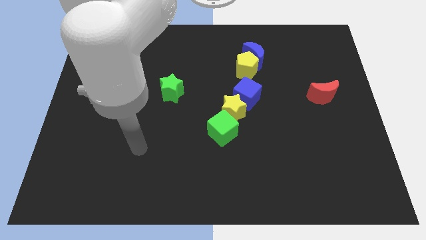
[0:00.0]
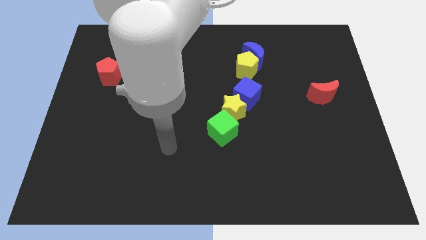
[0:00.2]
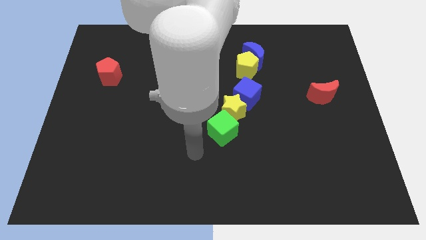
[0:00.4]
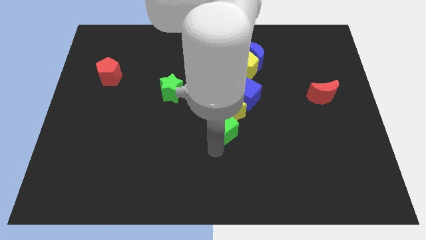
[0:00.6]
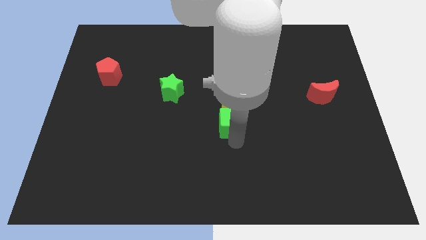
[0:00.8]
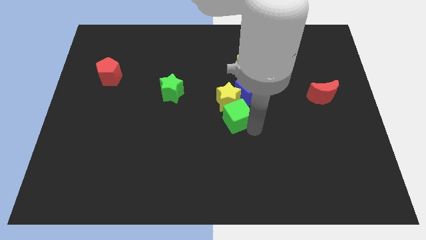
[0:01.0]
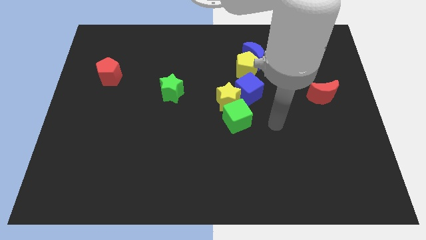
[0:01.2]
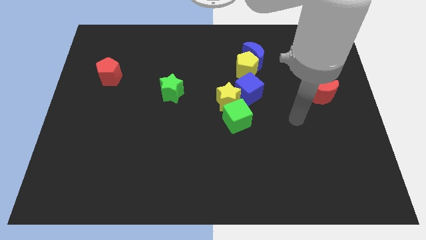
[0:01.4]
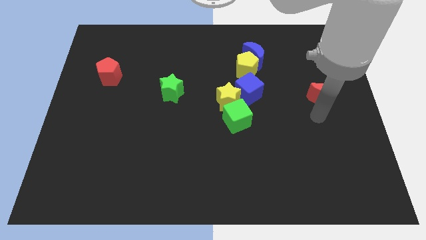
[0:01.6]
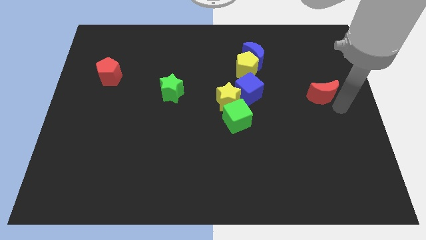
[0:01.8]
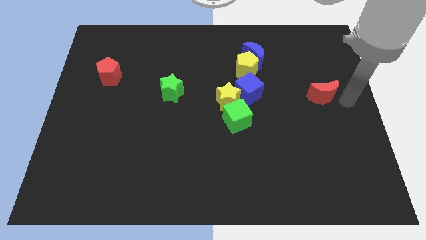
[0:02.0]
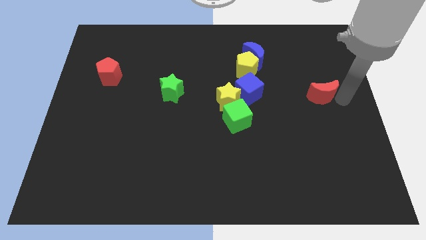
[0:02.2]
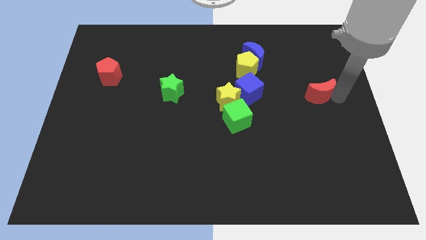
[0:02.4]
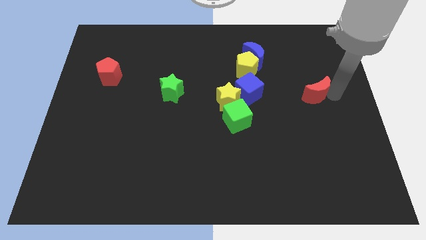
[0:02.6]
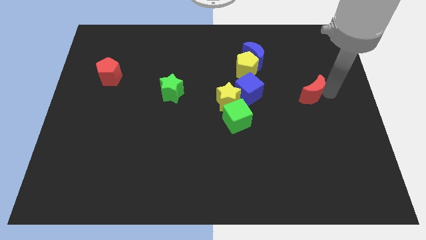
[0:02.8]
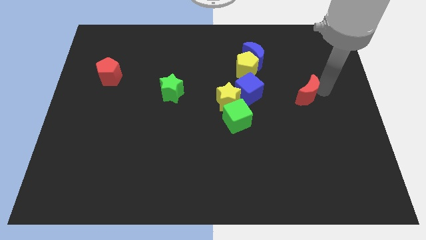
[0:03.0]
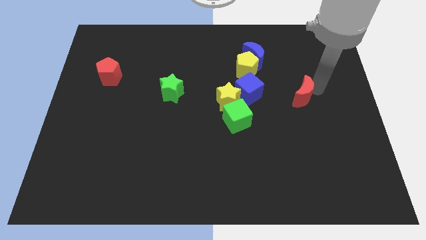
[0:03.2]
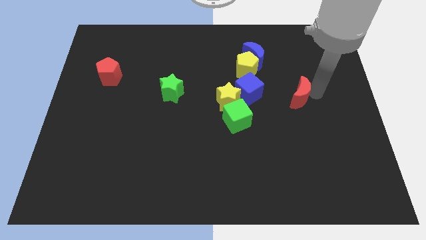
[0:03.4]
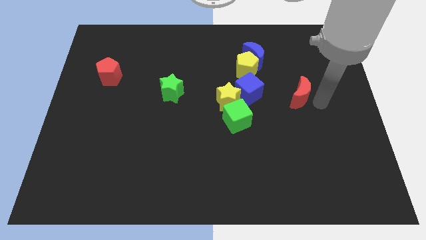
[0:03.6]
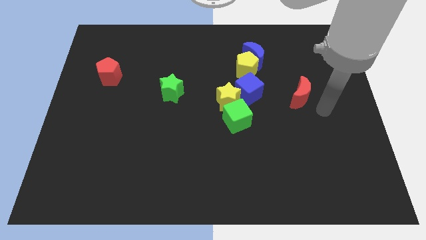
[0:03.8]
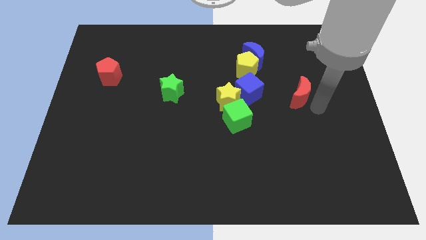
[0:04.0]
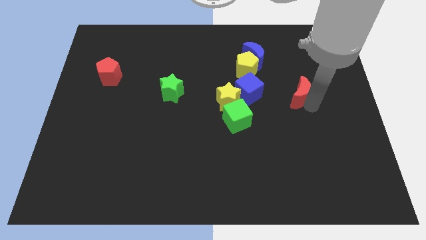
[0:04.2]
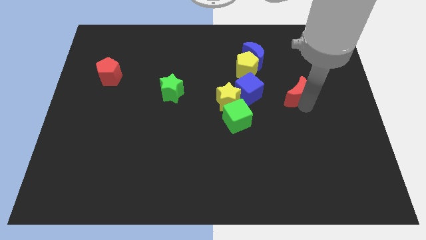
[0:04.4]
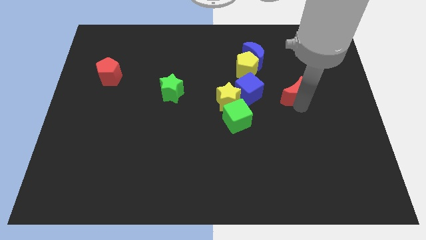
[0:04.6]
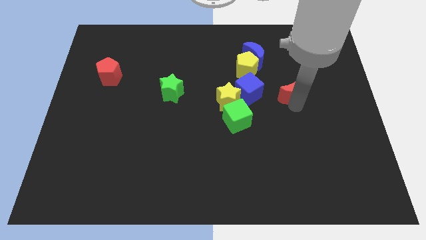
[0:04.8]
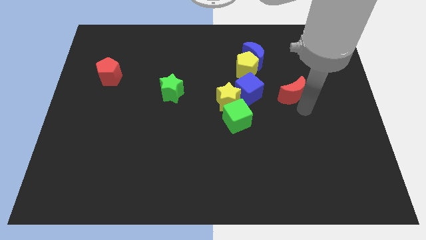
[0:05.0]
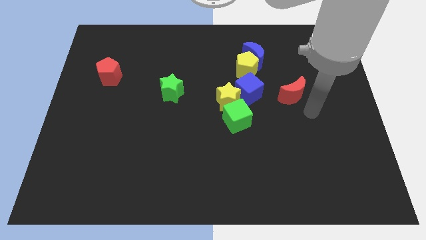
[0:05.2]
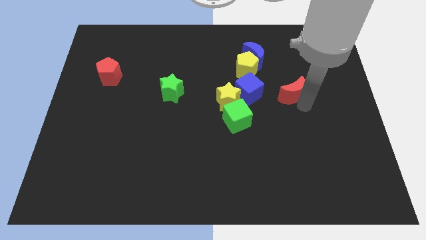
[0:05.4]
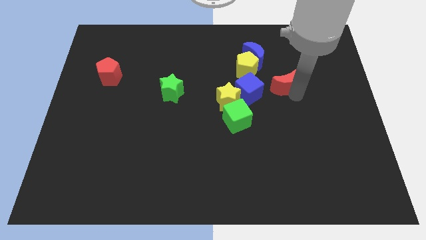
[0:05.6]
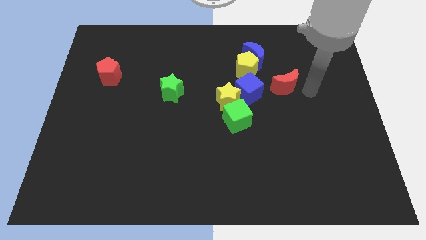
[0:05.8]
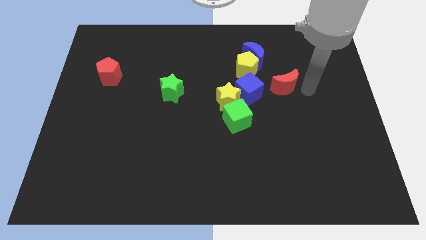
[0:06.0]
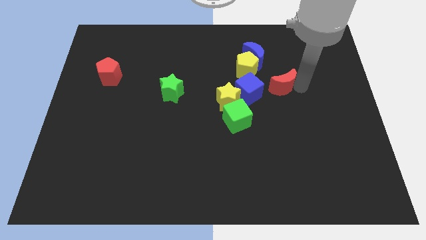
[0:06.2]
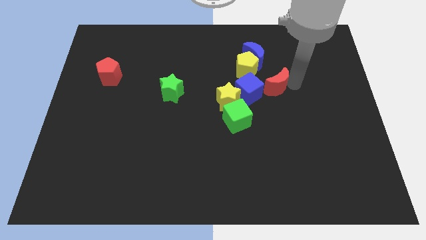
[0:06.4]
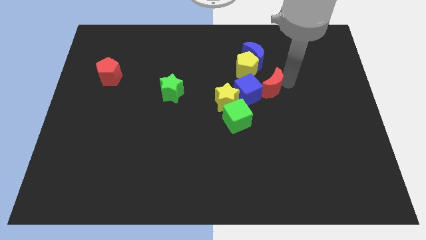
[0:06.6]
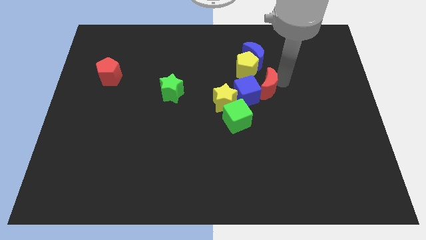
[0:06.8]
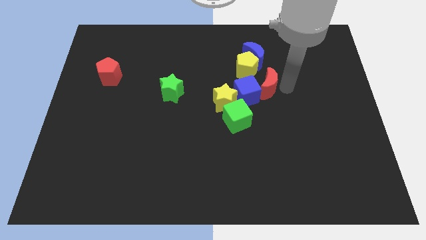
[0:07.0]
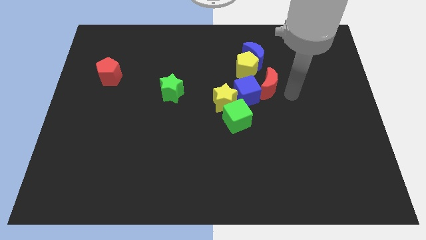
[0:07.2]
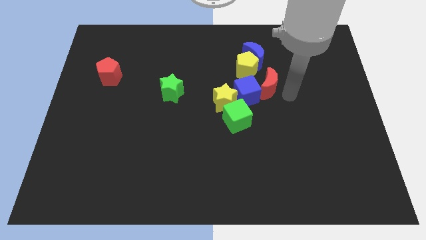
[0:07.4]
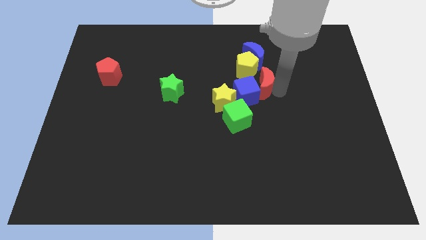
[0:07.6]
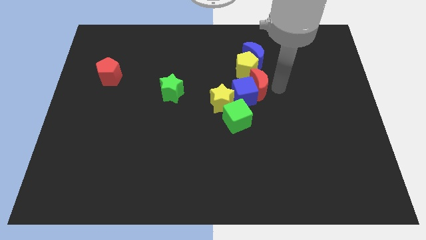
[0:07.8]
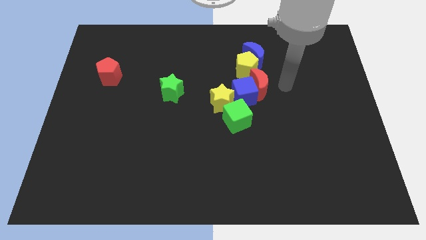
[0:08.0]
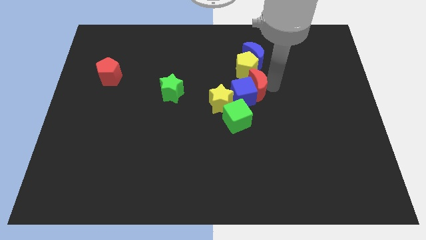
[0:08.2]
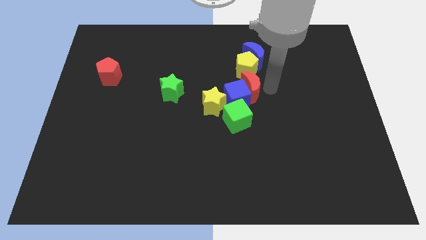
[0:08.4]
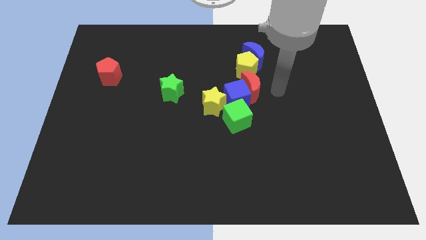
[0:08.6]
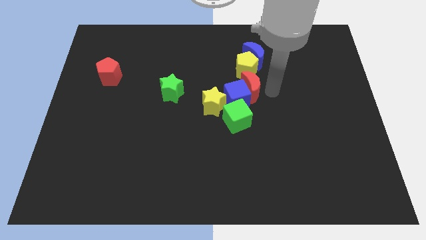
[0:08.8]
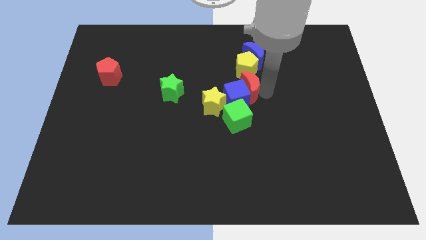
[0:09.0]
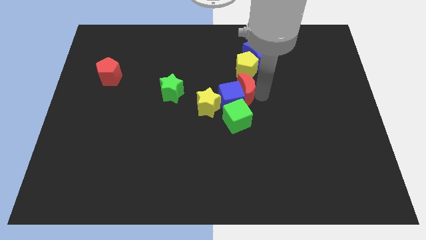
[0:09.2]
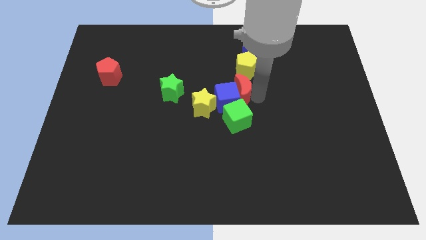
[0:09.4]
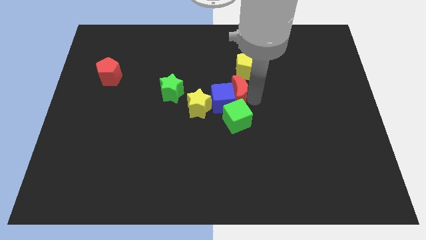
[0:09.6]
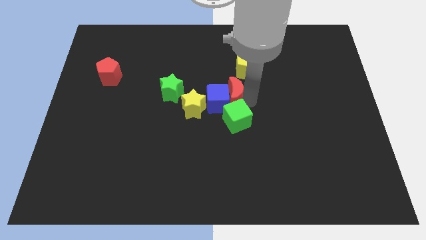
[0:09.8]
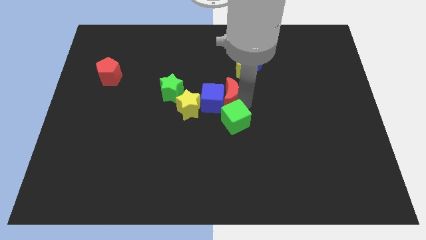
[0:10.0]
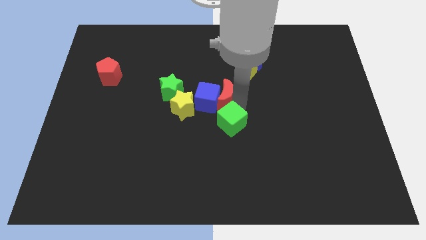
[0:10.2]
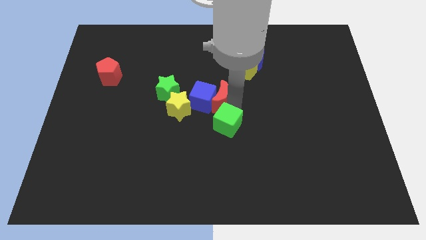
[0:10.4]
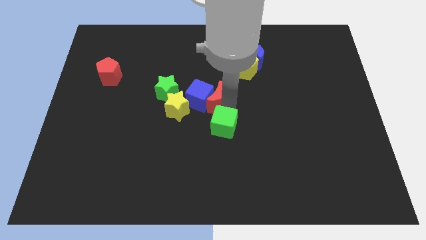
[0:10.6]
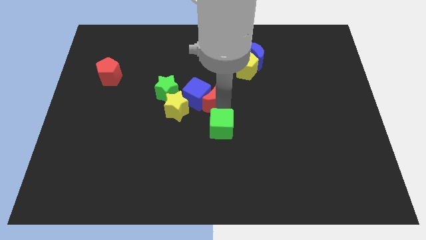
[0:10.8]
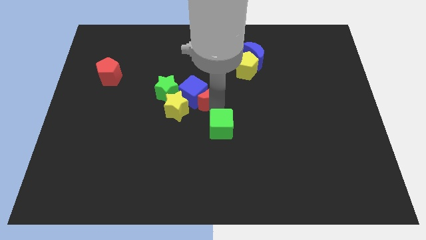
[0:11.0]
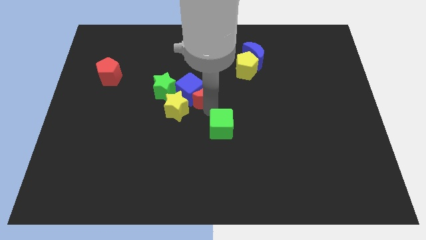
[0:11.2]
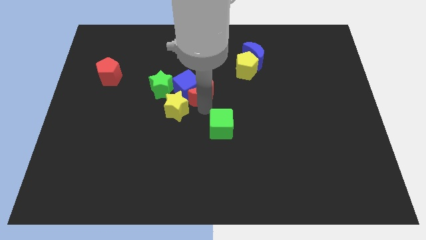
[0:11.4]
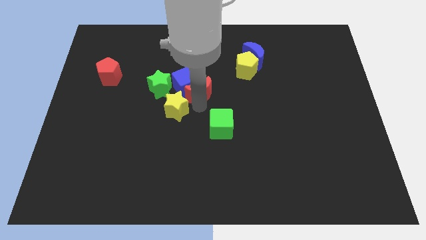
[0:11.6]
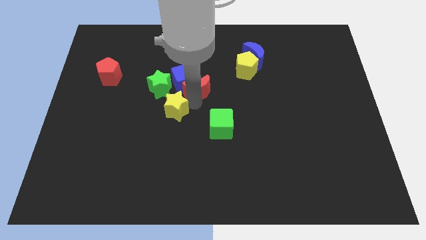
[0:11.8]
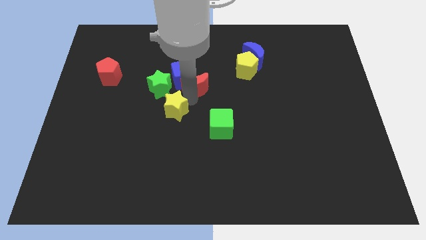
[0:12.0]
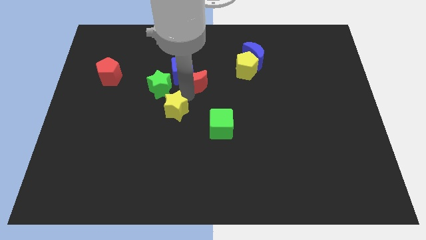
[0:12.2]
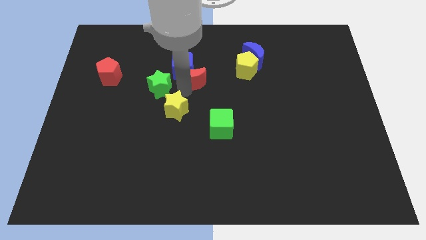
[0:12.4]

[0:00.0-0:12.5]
move the red moon just left of the yellow pentagon
